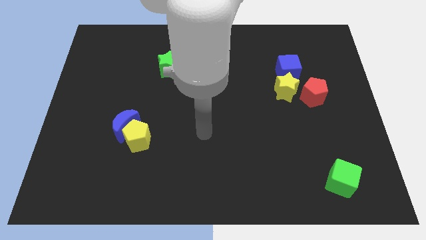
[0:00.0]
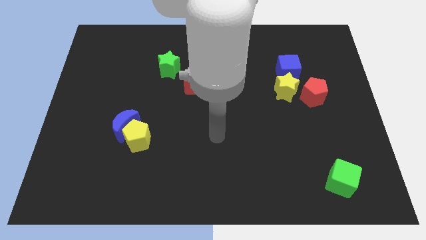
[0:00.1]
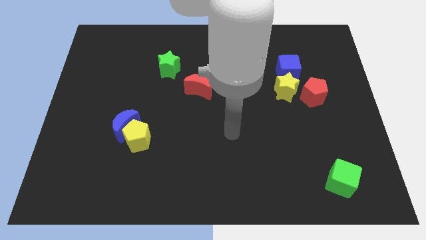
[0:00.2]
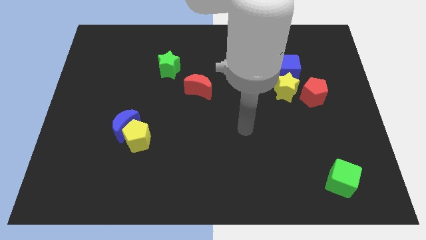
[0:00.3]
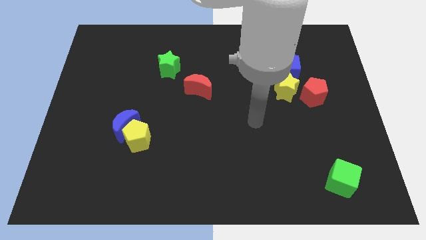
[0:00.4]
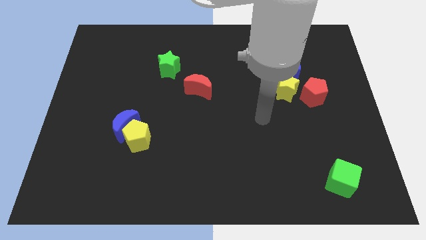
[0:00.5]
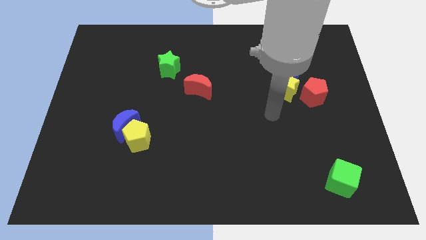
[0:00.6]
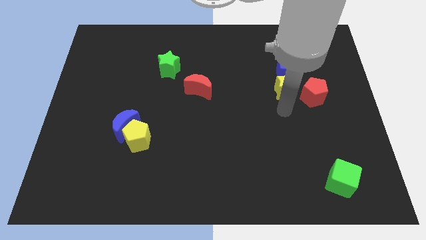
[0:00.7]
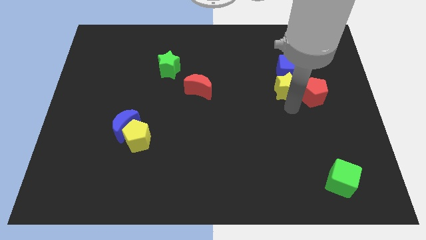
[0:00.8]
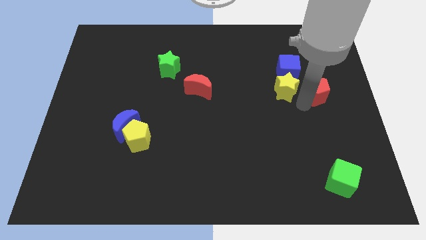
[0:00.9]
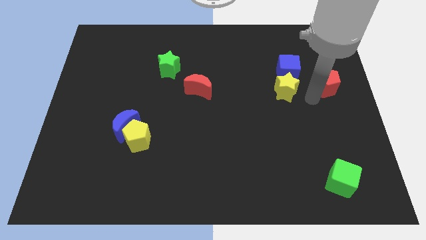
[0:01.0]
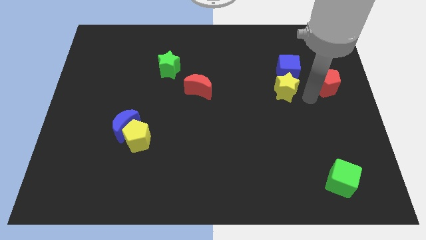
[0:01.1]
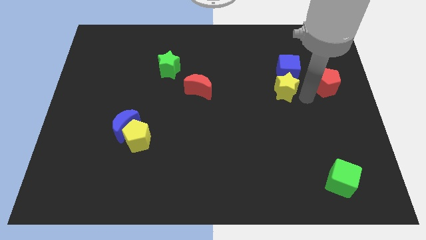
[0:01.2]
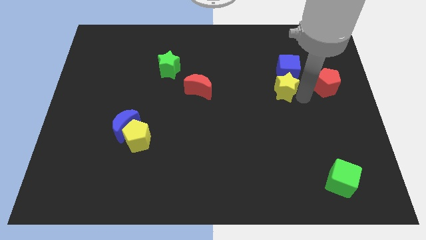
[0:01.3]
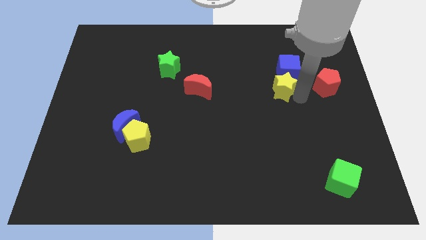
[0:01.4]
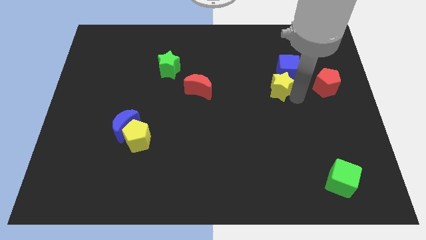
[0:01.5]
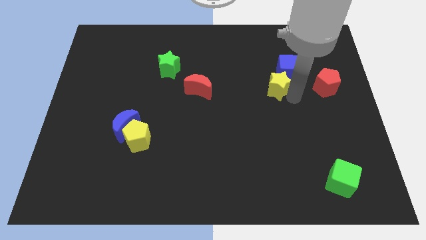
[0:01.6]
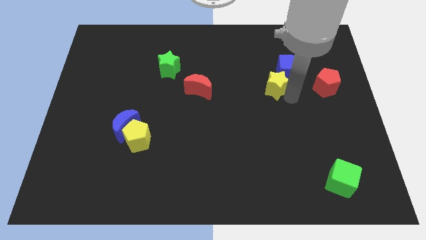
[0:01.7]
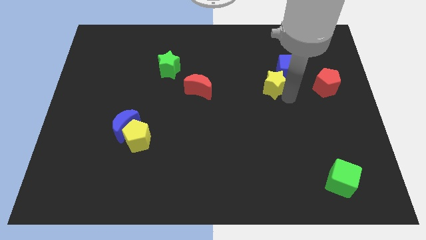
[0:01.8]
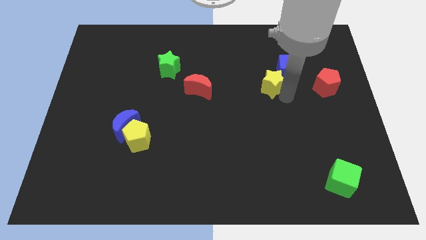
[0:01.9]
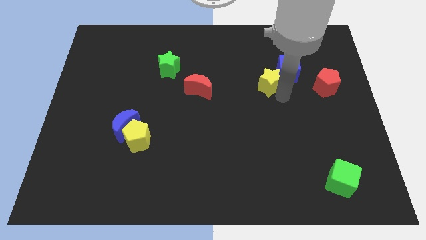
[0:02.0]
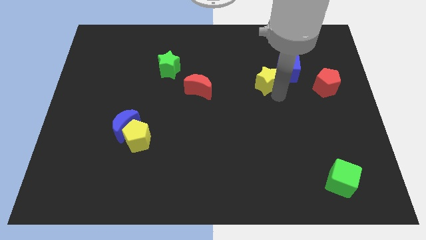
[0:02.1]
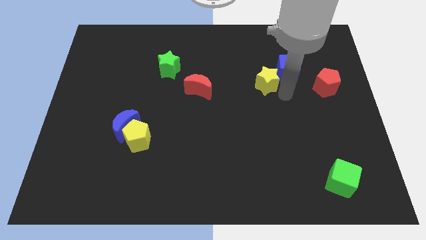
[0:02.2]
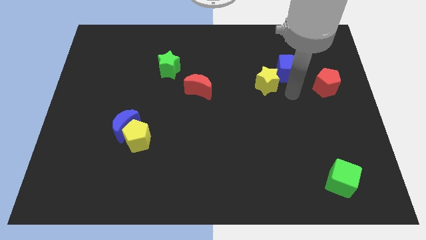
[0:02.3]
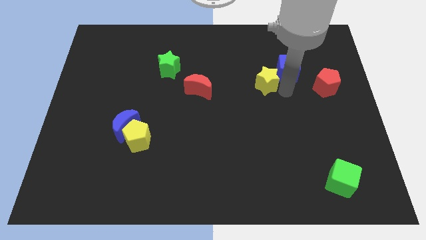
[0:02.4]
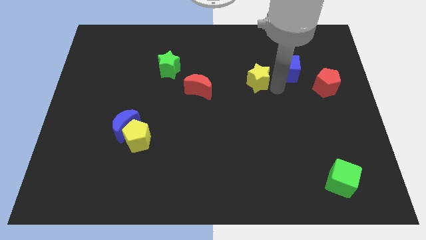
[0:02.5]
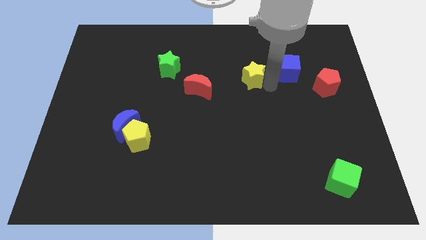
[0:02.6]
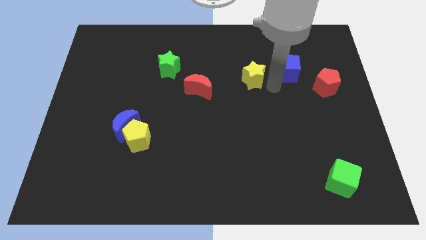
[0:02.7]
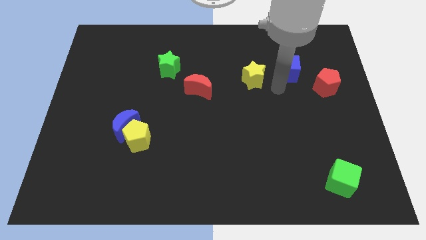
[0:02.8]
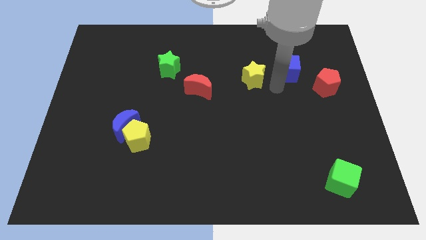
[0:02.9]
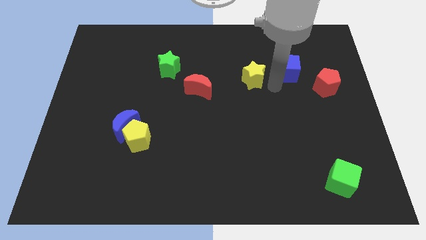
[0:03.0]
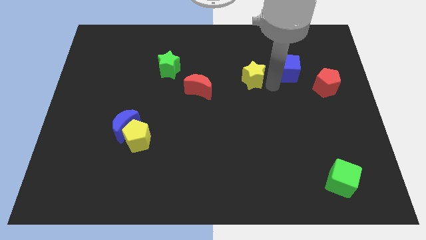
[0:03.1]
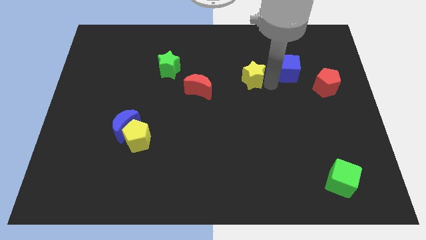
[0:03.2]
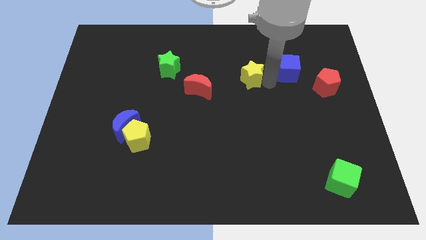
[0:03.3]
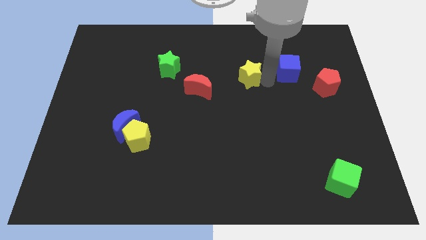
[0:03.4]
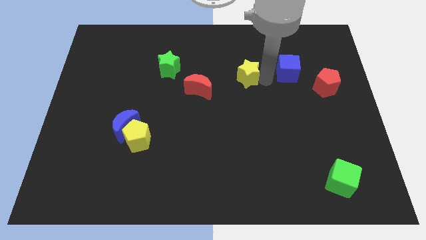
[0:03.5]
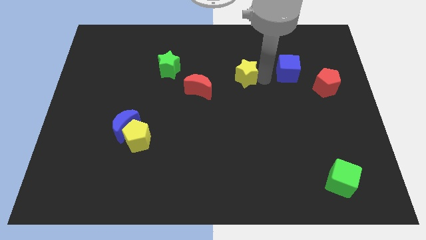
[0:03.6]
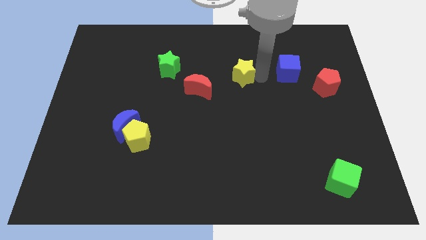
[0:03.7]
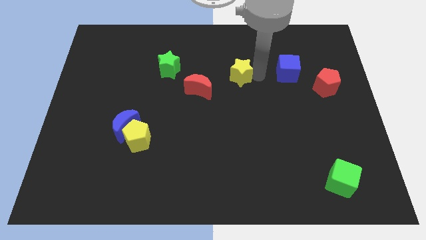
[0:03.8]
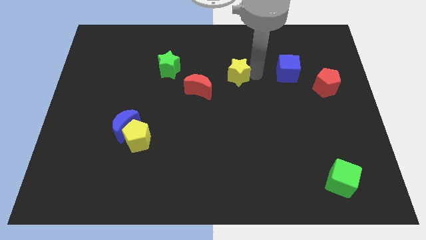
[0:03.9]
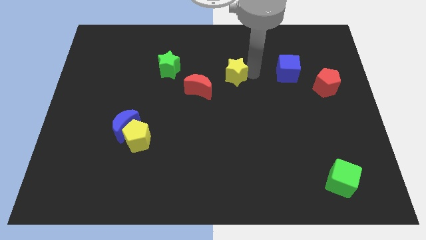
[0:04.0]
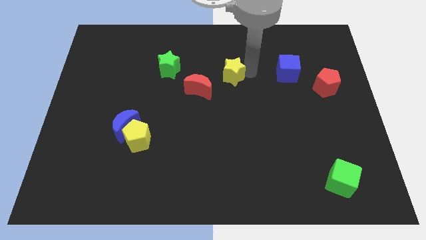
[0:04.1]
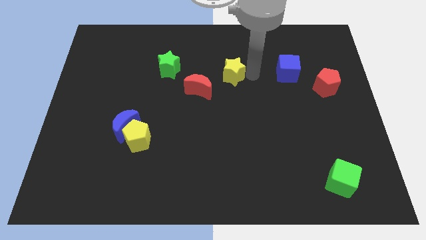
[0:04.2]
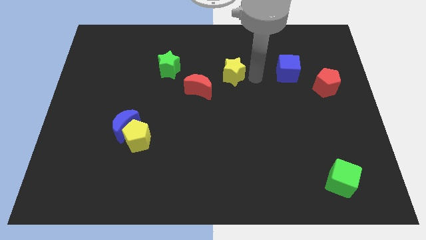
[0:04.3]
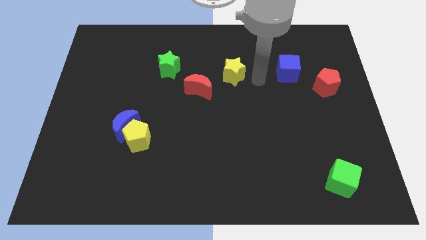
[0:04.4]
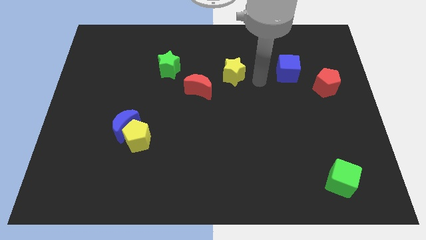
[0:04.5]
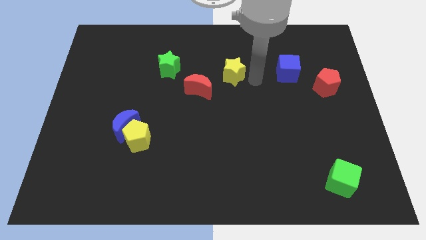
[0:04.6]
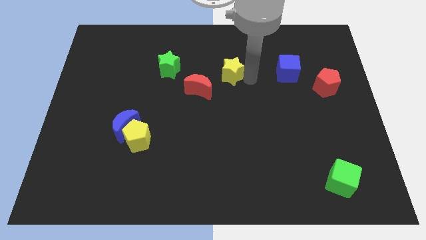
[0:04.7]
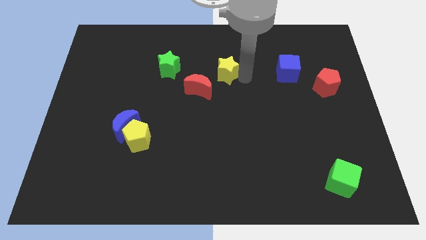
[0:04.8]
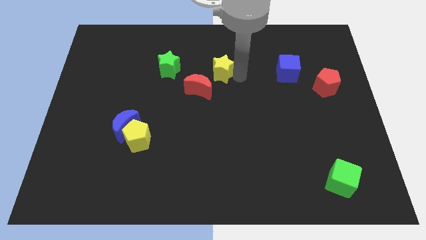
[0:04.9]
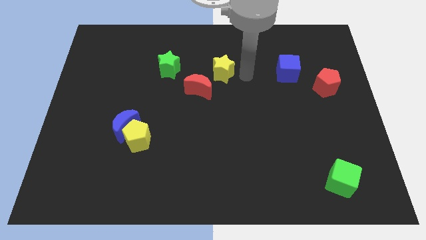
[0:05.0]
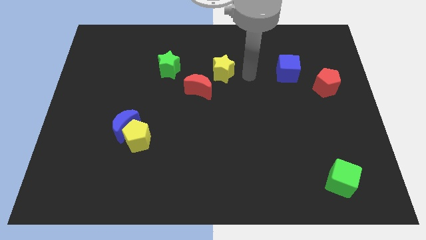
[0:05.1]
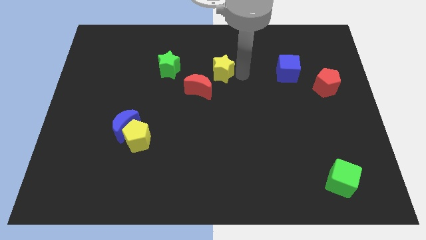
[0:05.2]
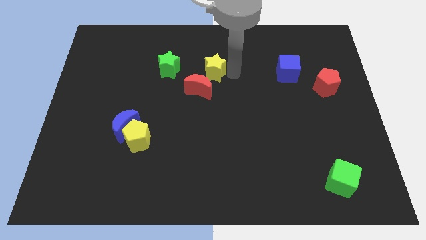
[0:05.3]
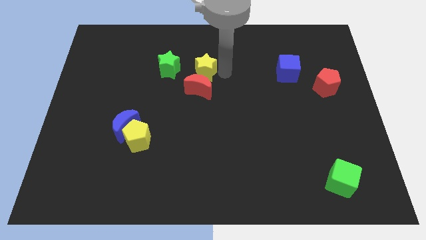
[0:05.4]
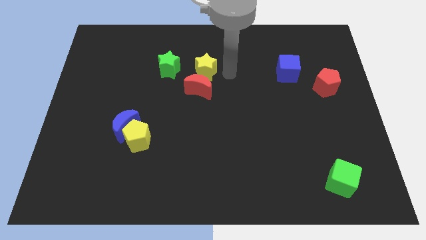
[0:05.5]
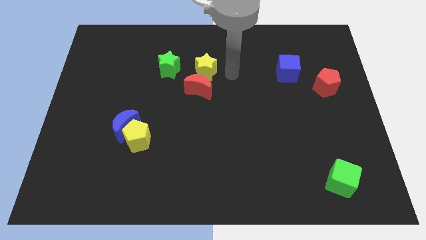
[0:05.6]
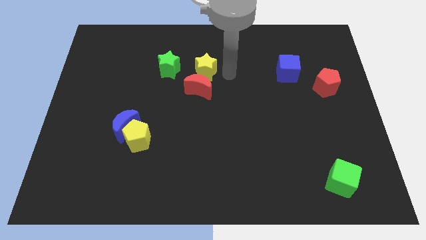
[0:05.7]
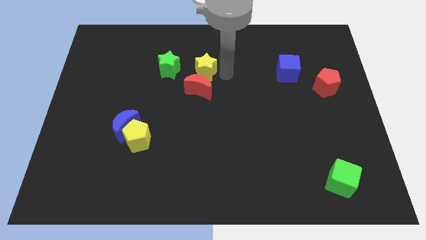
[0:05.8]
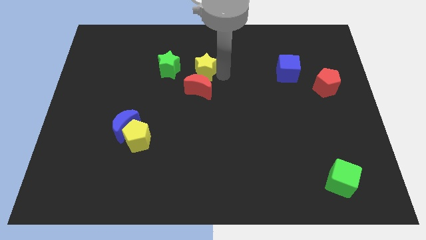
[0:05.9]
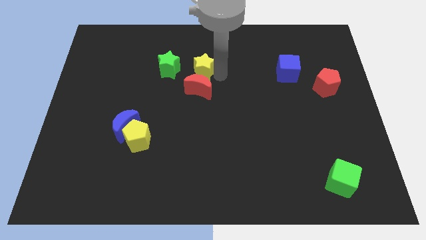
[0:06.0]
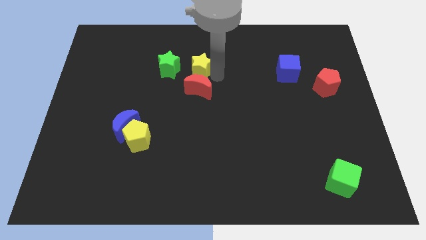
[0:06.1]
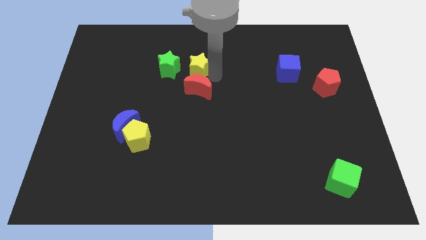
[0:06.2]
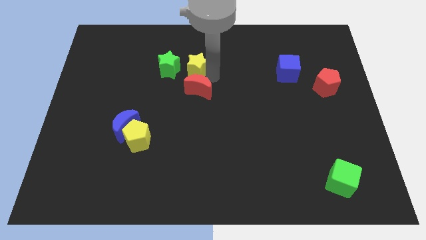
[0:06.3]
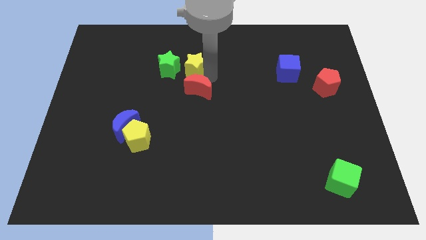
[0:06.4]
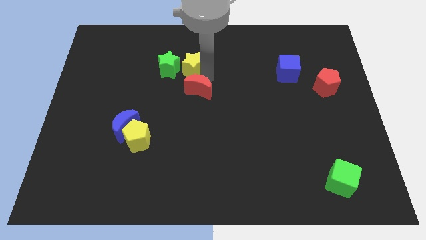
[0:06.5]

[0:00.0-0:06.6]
slide the yellow star to the green star

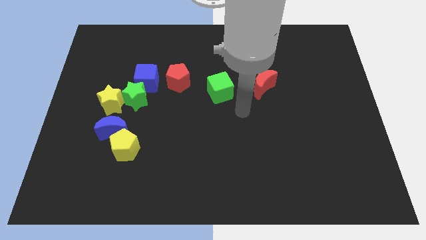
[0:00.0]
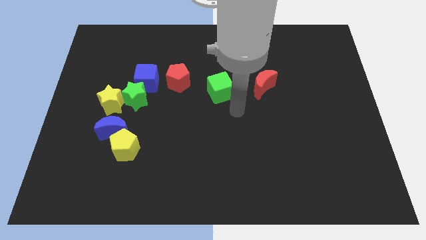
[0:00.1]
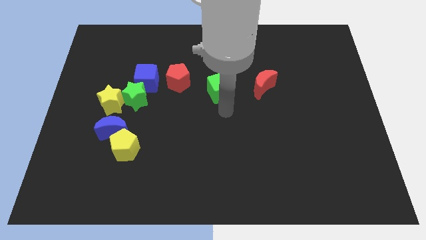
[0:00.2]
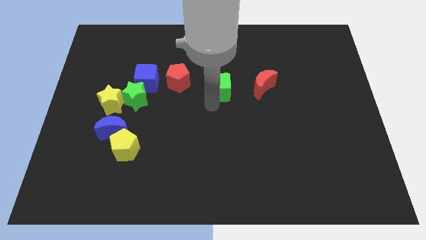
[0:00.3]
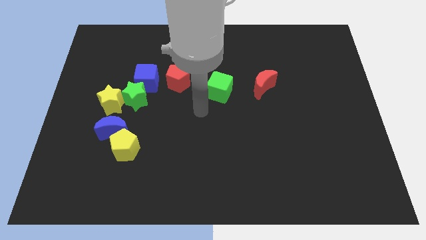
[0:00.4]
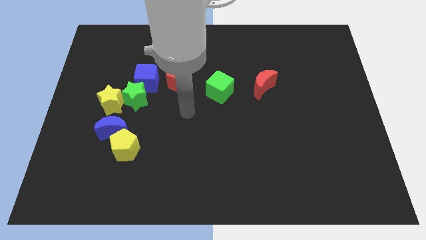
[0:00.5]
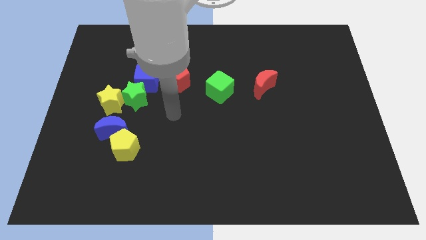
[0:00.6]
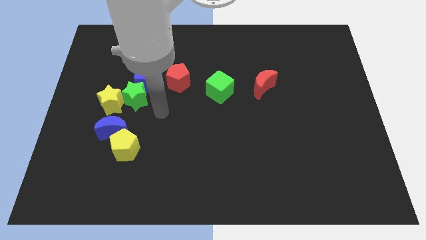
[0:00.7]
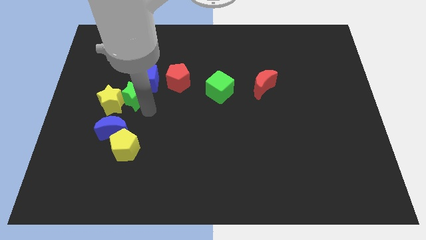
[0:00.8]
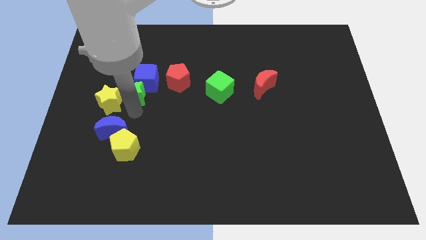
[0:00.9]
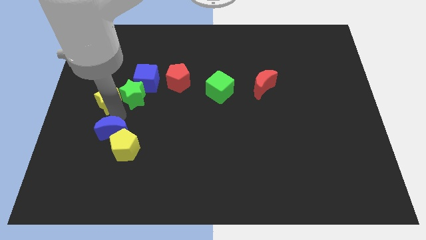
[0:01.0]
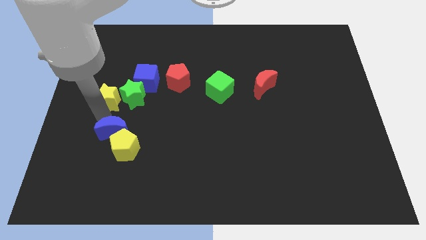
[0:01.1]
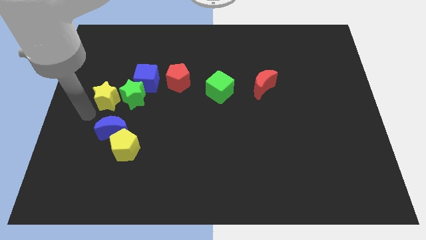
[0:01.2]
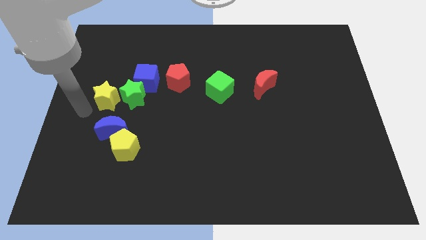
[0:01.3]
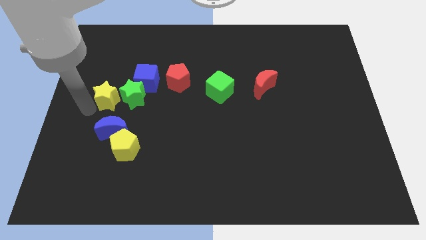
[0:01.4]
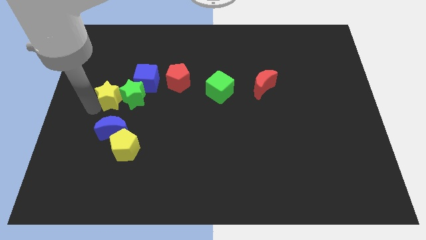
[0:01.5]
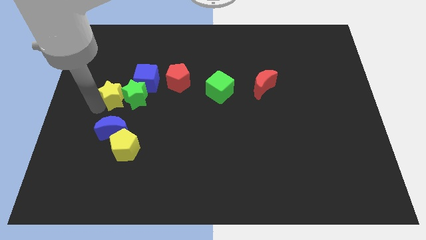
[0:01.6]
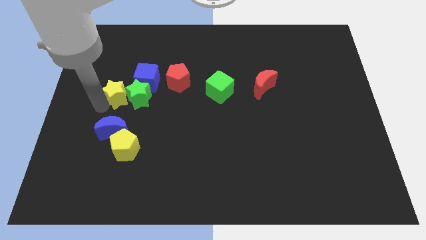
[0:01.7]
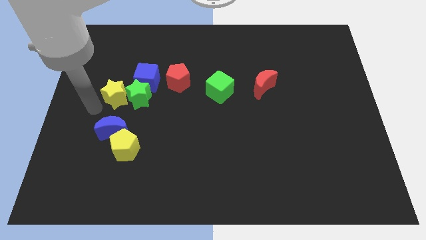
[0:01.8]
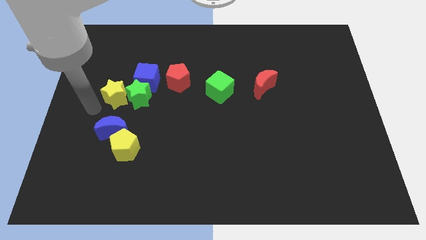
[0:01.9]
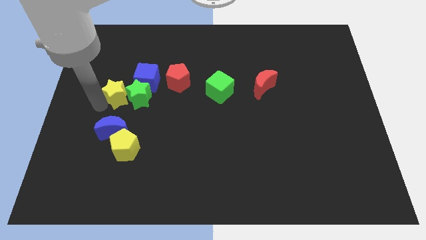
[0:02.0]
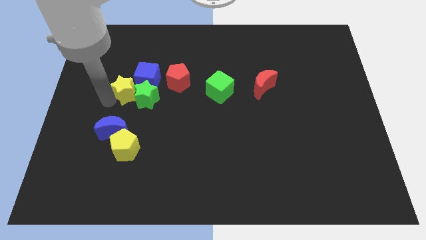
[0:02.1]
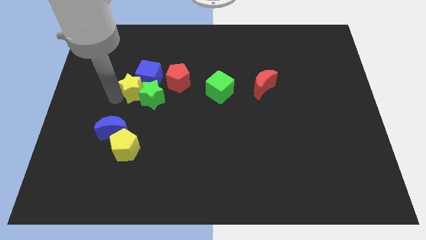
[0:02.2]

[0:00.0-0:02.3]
move the yellow star next to the blue cube
